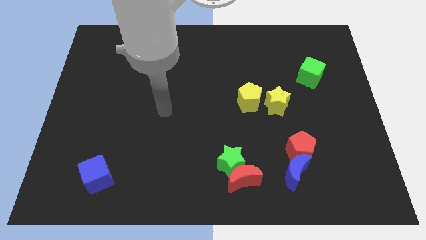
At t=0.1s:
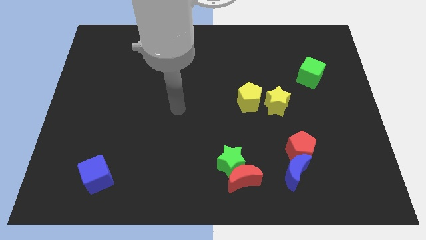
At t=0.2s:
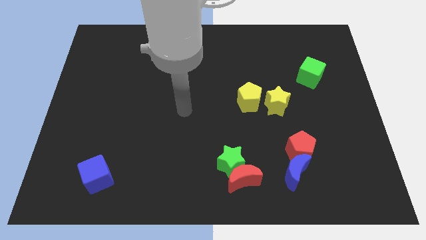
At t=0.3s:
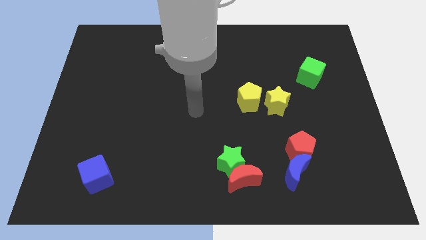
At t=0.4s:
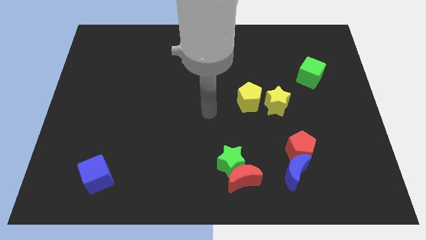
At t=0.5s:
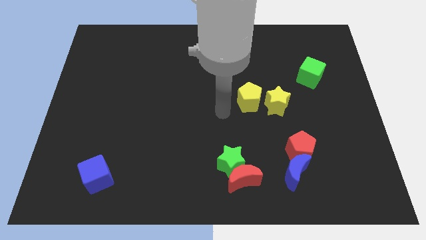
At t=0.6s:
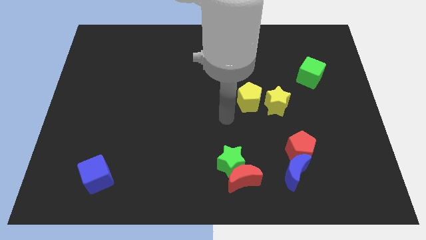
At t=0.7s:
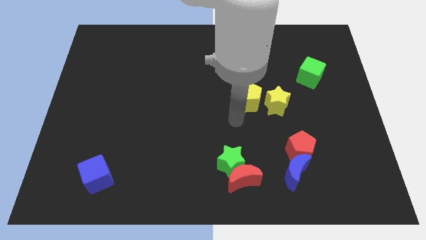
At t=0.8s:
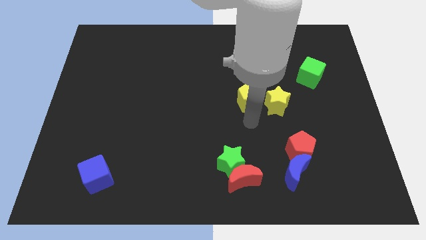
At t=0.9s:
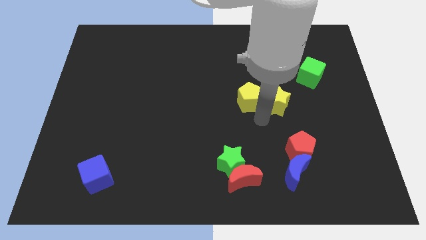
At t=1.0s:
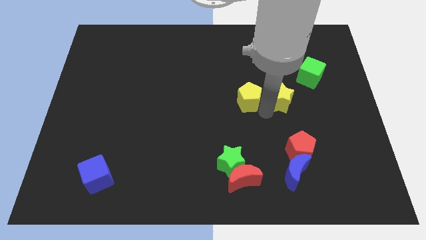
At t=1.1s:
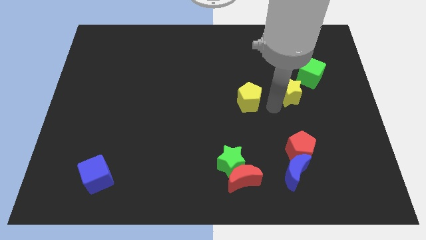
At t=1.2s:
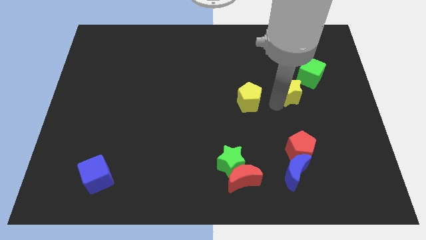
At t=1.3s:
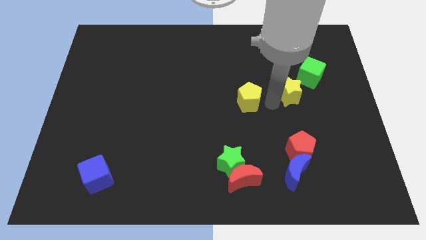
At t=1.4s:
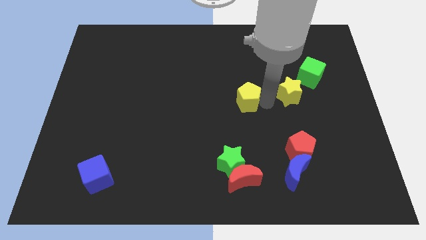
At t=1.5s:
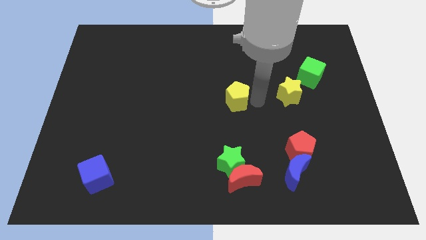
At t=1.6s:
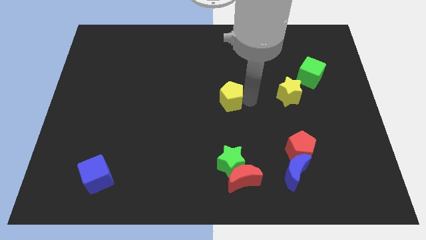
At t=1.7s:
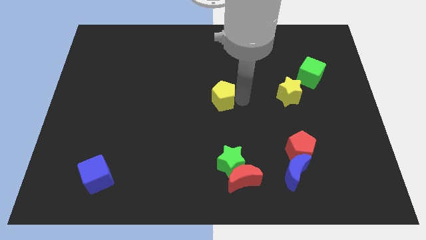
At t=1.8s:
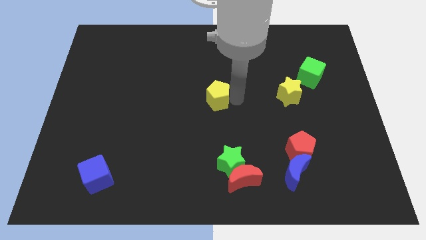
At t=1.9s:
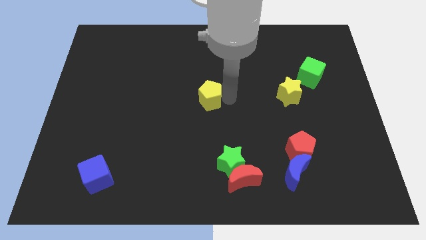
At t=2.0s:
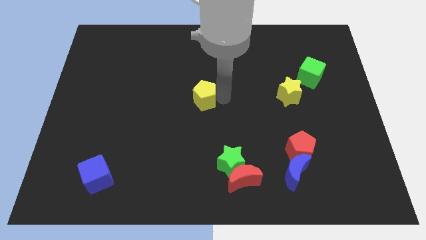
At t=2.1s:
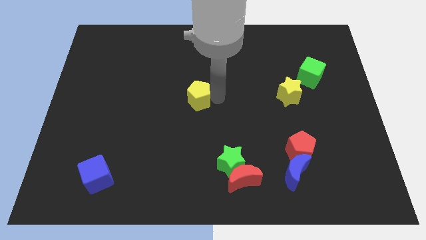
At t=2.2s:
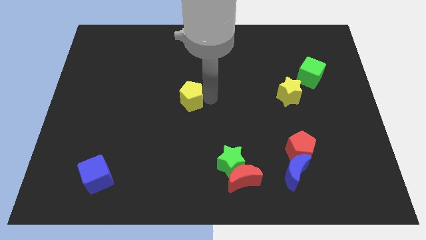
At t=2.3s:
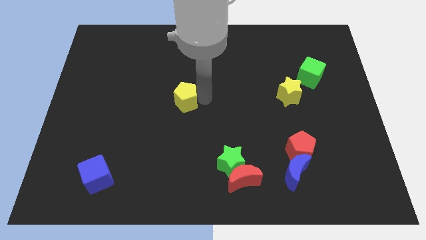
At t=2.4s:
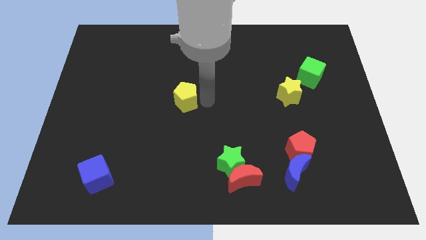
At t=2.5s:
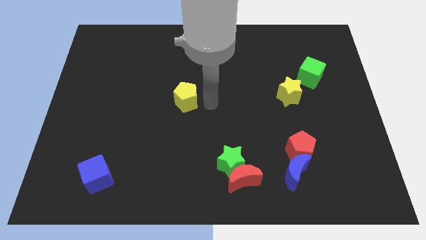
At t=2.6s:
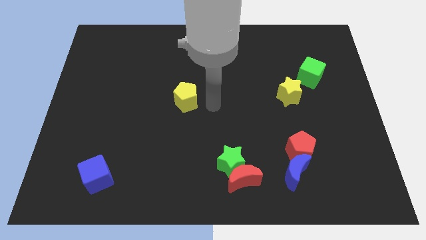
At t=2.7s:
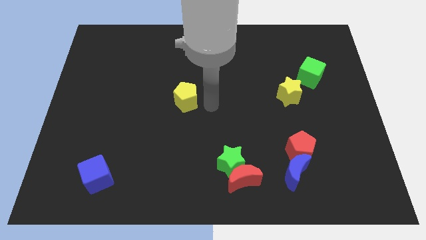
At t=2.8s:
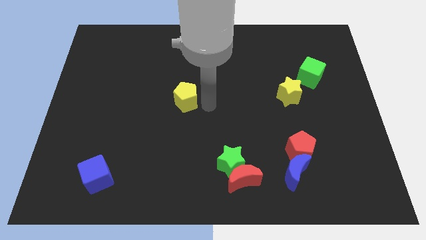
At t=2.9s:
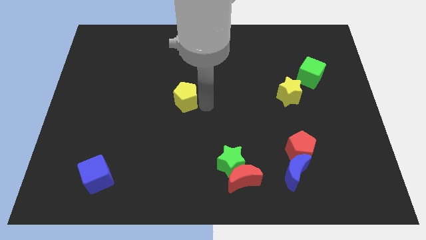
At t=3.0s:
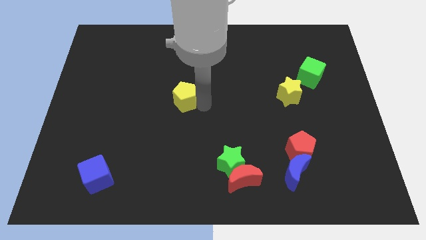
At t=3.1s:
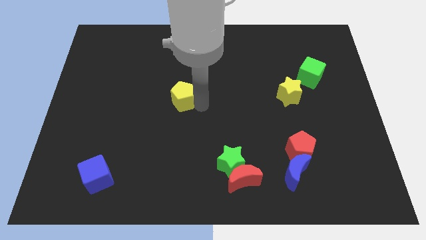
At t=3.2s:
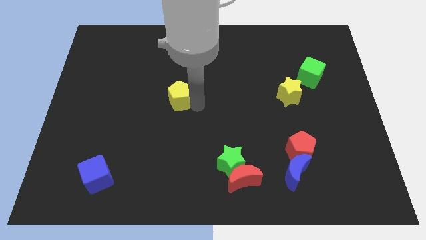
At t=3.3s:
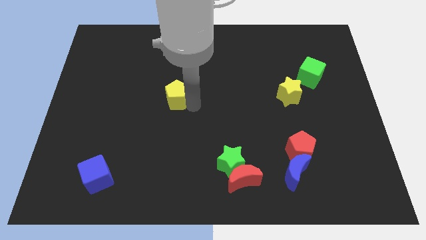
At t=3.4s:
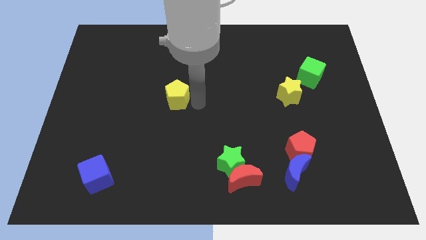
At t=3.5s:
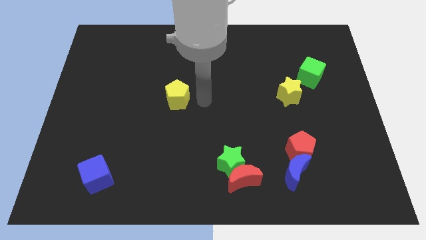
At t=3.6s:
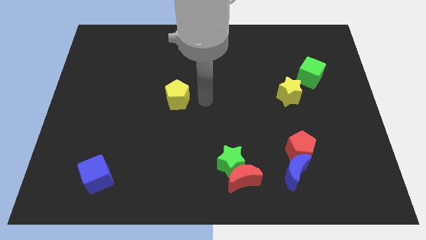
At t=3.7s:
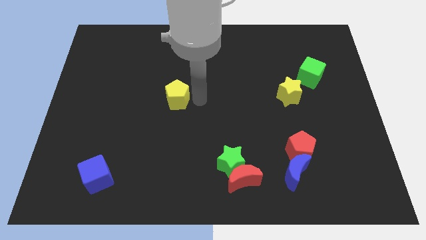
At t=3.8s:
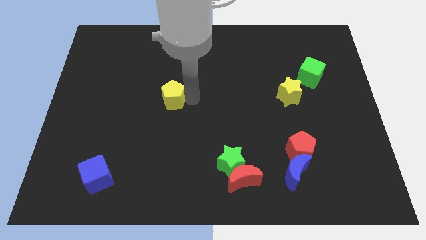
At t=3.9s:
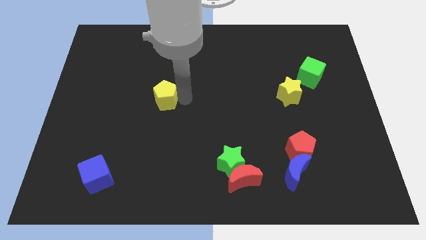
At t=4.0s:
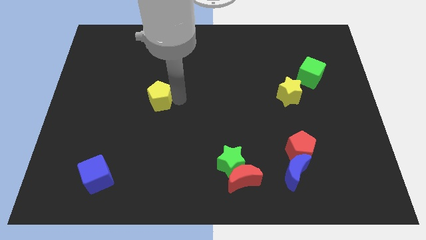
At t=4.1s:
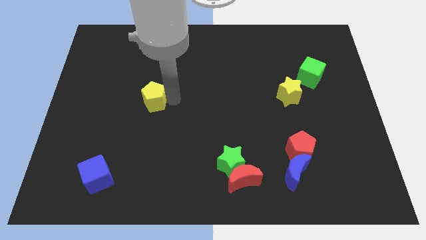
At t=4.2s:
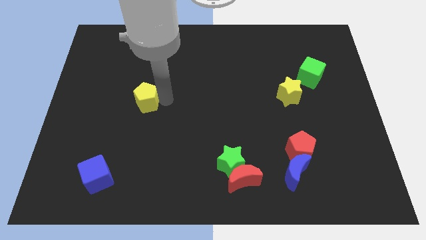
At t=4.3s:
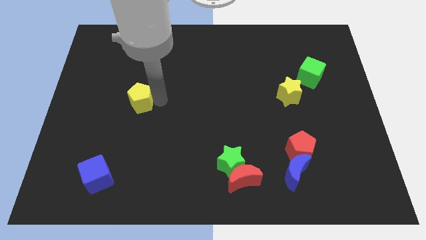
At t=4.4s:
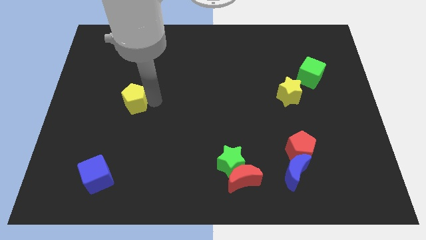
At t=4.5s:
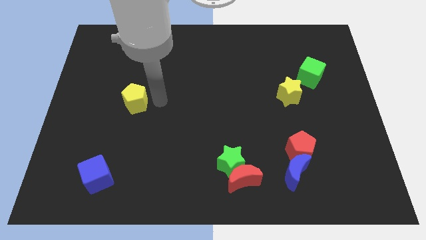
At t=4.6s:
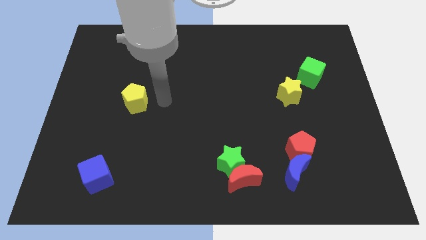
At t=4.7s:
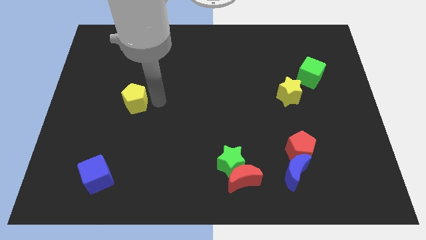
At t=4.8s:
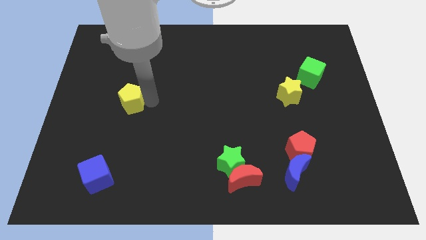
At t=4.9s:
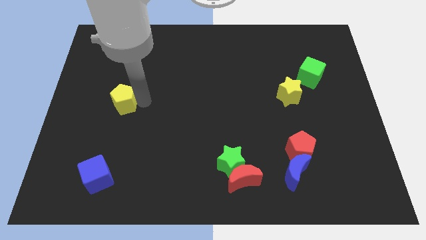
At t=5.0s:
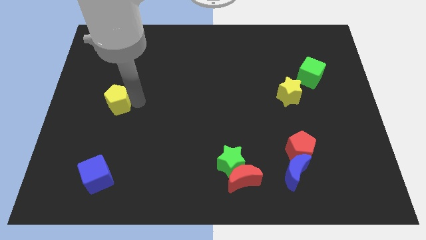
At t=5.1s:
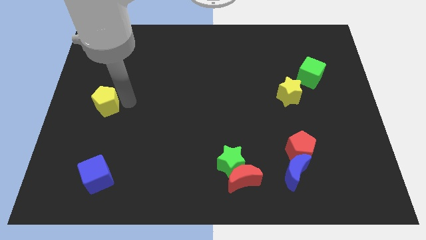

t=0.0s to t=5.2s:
push the yellow pentagon to the center left

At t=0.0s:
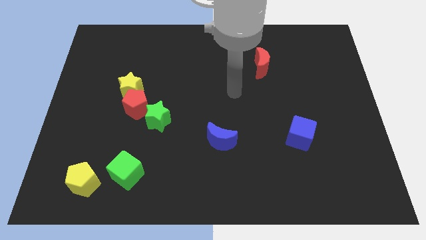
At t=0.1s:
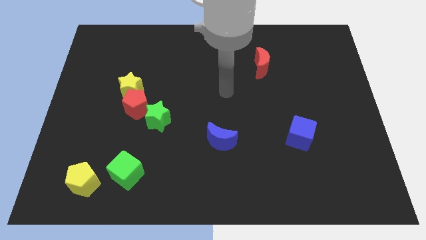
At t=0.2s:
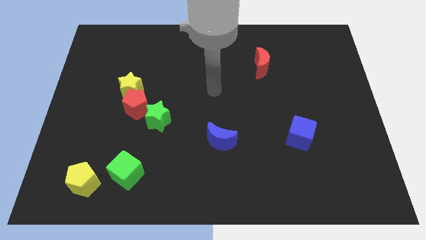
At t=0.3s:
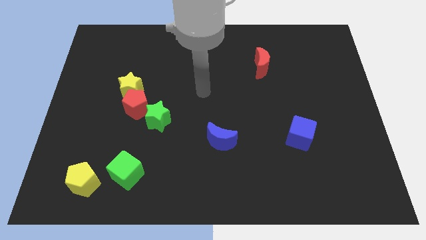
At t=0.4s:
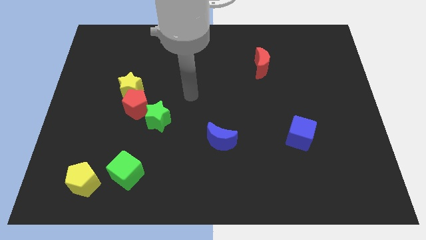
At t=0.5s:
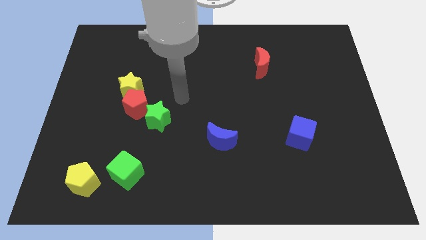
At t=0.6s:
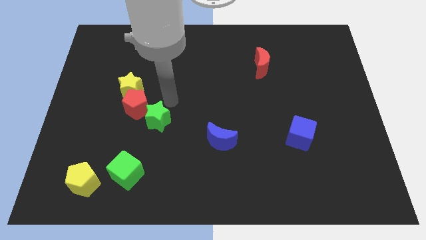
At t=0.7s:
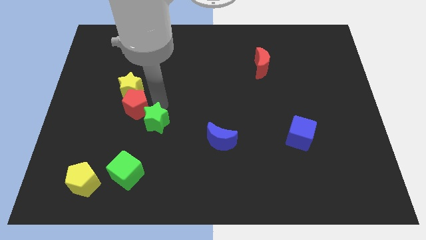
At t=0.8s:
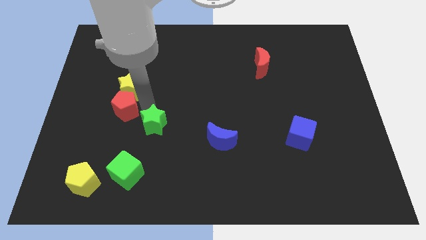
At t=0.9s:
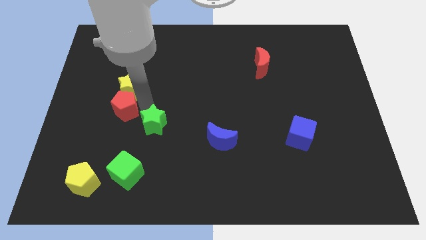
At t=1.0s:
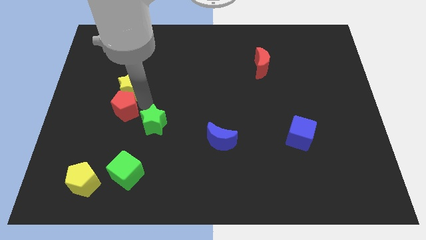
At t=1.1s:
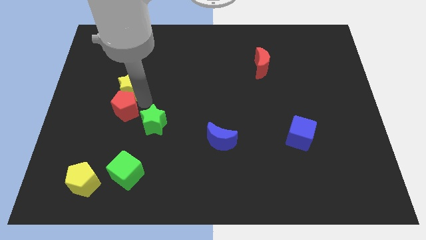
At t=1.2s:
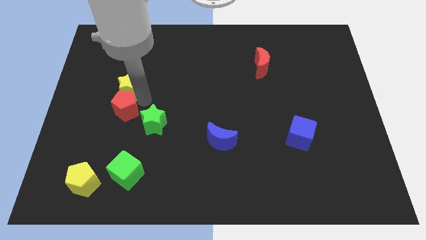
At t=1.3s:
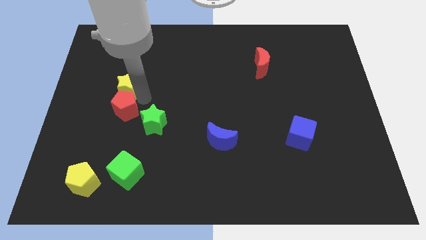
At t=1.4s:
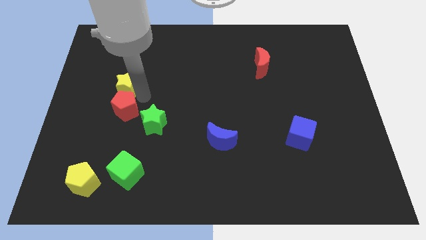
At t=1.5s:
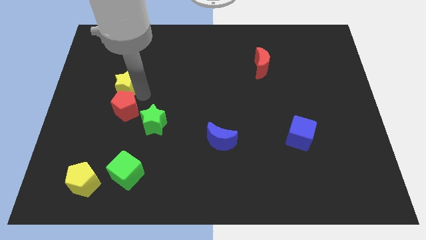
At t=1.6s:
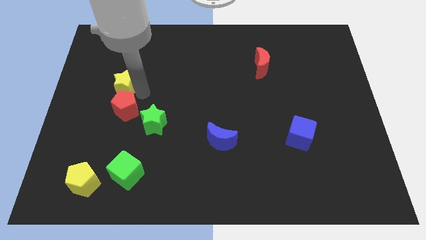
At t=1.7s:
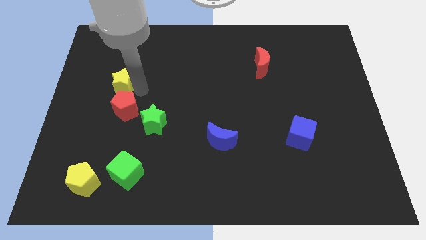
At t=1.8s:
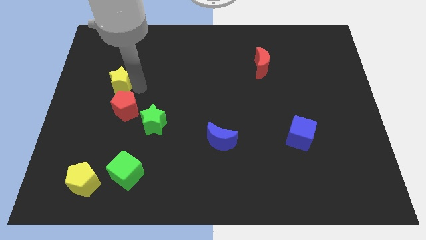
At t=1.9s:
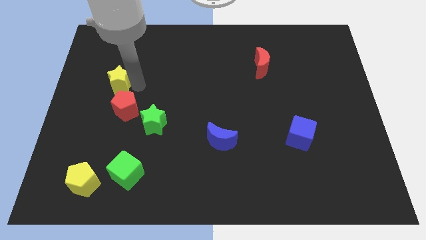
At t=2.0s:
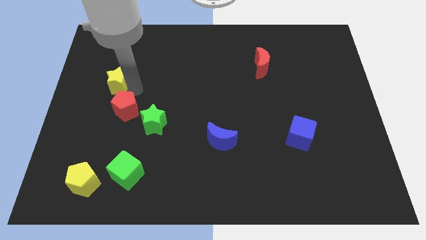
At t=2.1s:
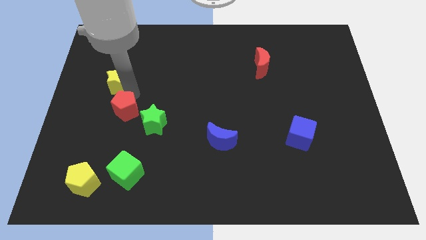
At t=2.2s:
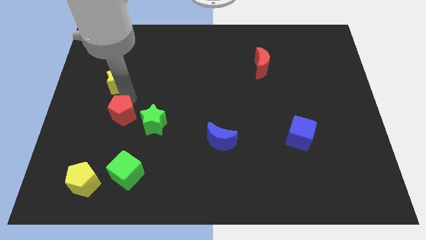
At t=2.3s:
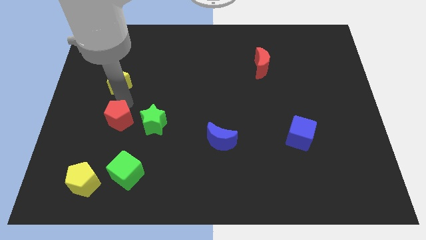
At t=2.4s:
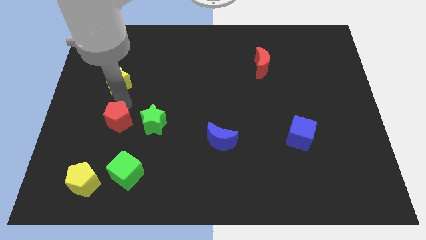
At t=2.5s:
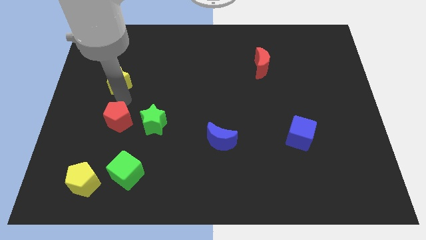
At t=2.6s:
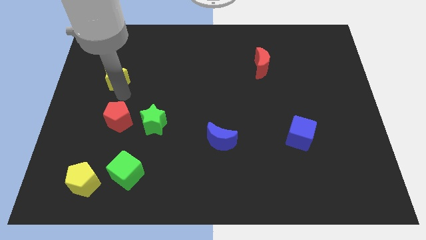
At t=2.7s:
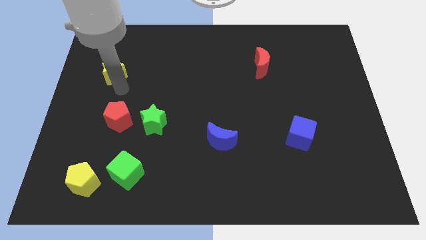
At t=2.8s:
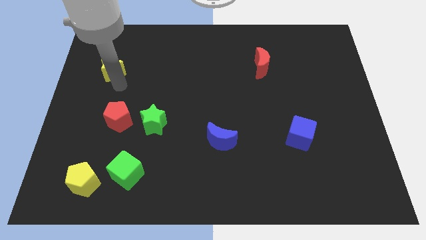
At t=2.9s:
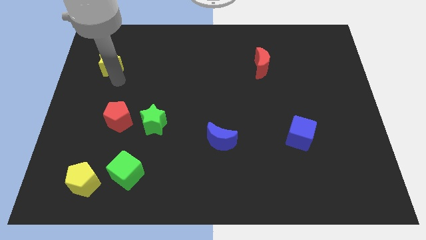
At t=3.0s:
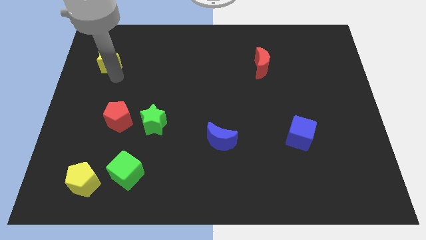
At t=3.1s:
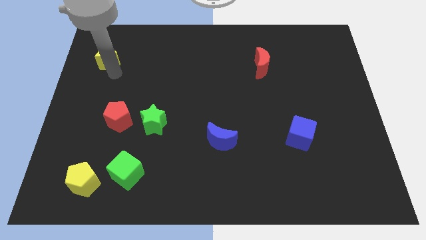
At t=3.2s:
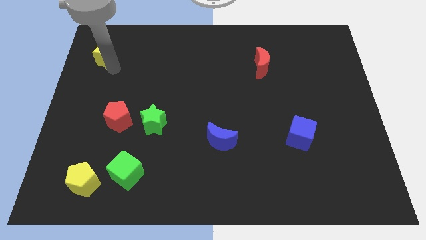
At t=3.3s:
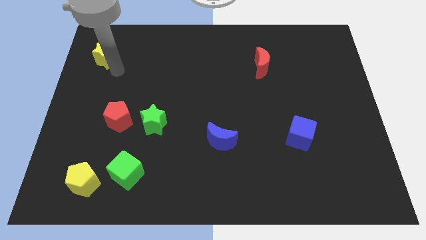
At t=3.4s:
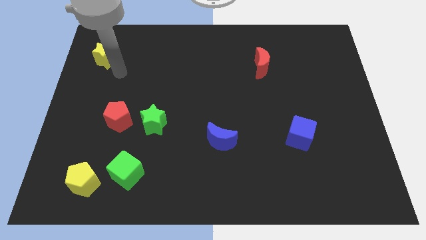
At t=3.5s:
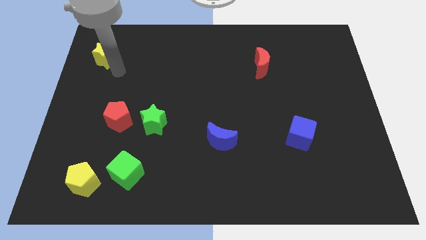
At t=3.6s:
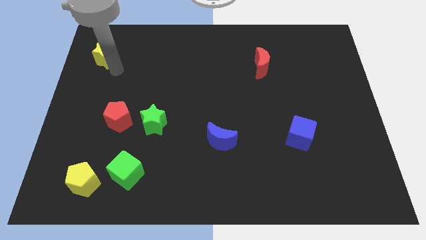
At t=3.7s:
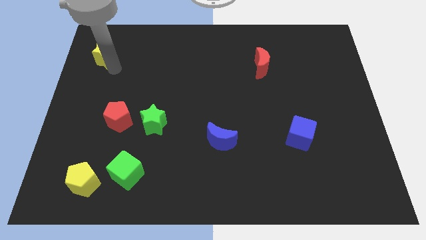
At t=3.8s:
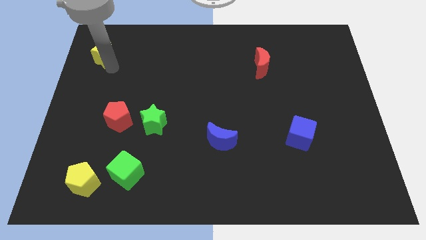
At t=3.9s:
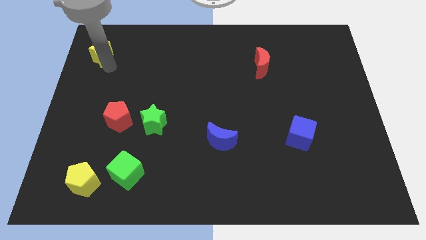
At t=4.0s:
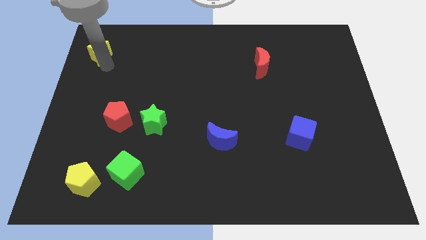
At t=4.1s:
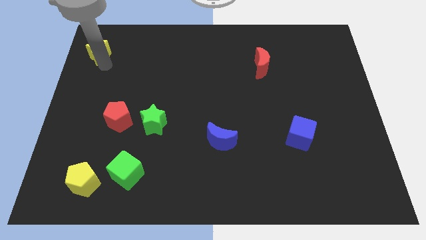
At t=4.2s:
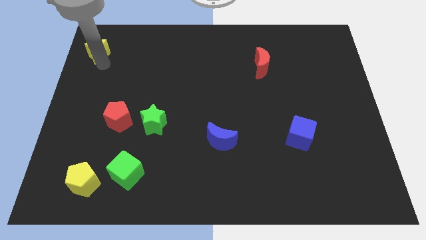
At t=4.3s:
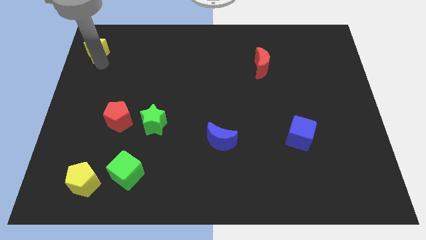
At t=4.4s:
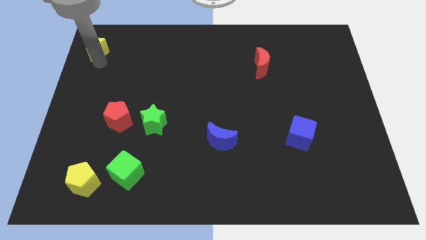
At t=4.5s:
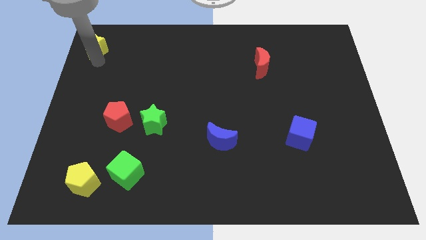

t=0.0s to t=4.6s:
put the yellow star to the top left
